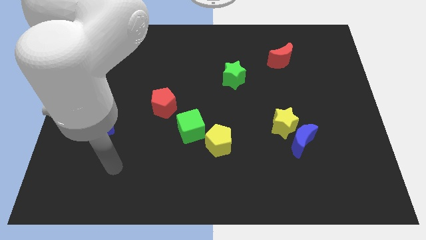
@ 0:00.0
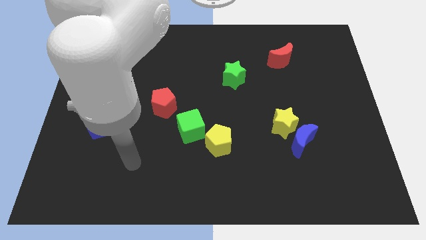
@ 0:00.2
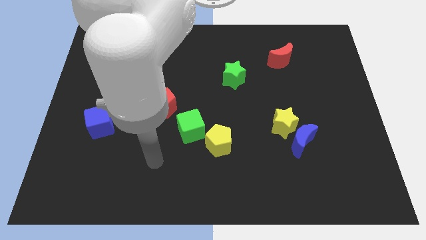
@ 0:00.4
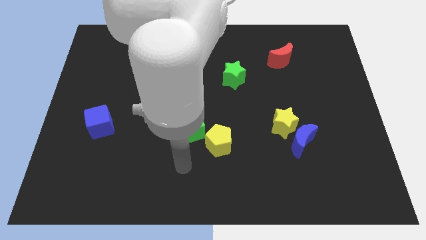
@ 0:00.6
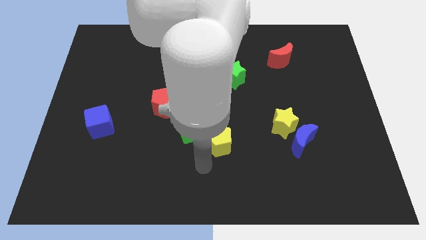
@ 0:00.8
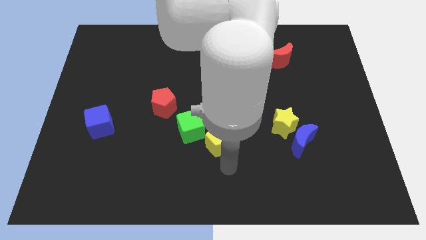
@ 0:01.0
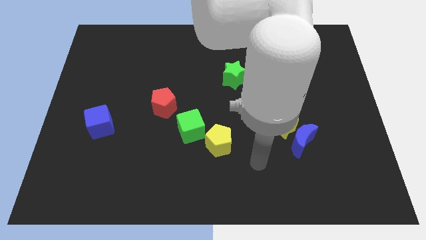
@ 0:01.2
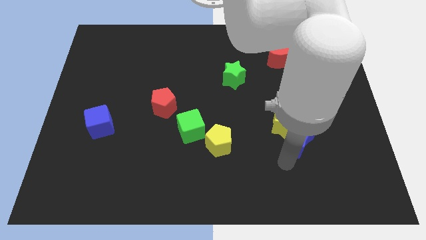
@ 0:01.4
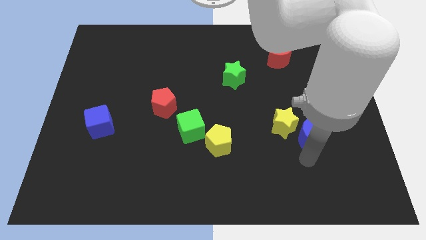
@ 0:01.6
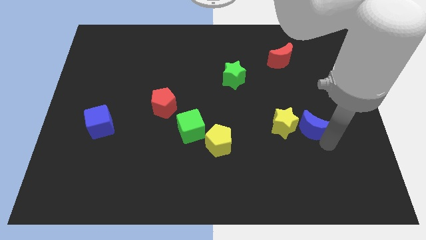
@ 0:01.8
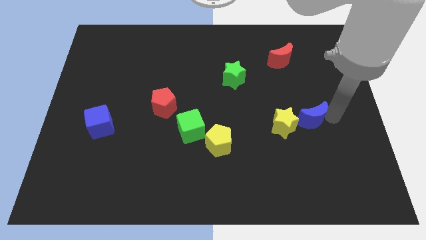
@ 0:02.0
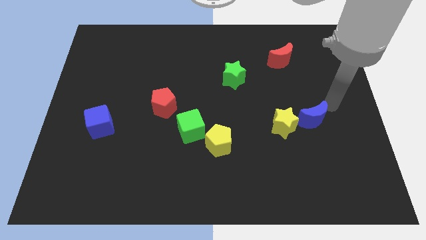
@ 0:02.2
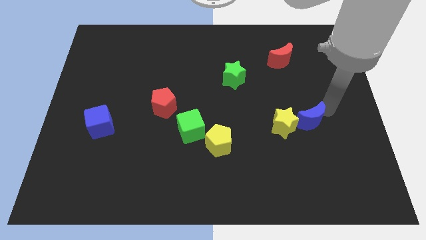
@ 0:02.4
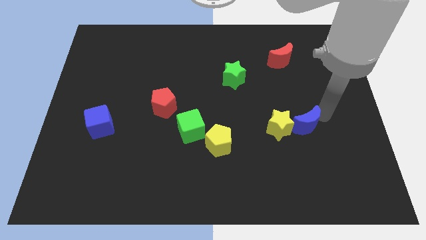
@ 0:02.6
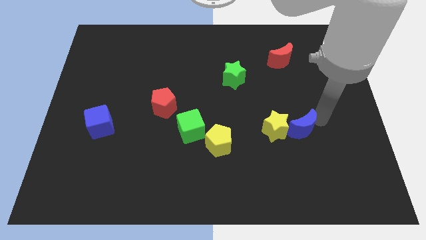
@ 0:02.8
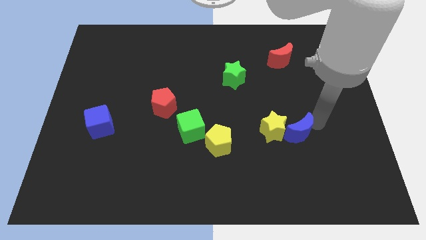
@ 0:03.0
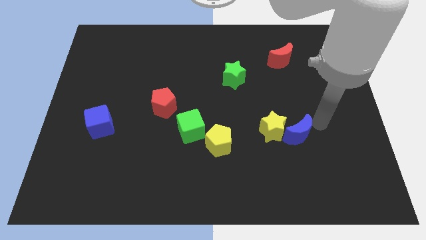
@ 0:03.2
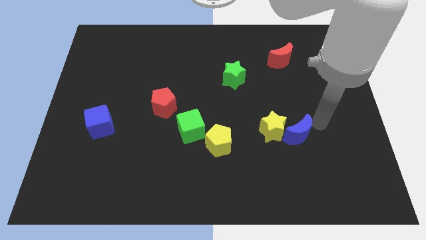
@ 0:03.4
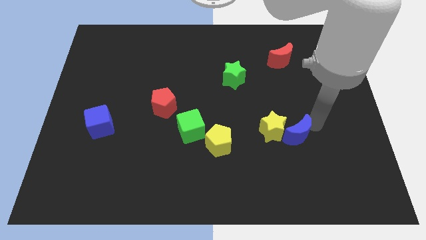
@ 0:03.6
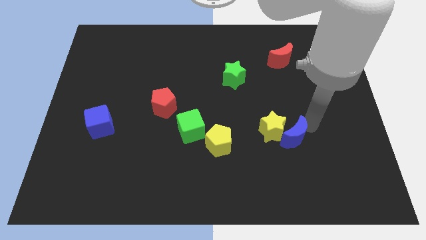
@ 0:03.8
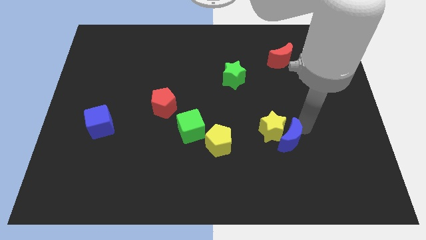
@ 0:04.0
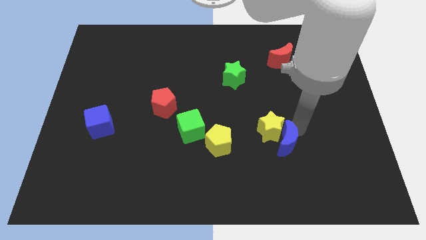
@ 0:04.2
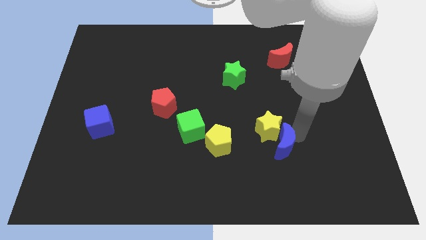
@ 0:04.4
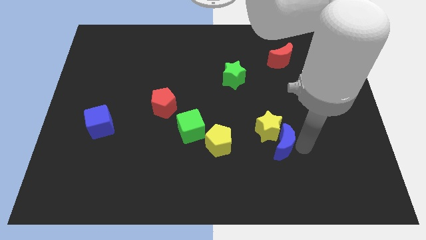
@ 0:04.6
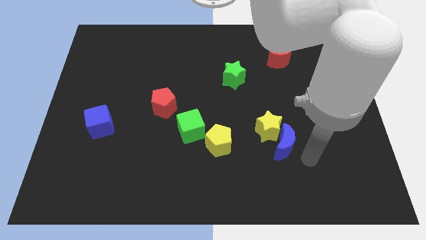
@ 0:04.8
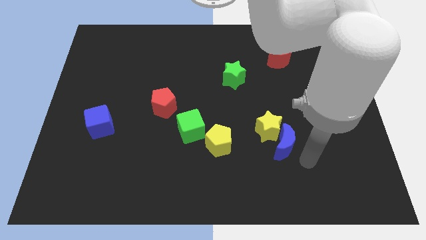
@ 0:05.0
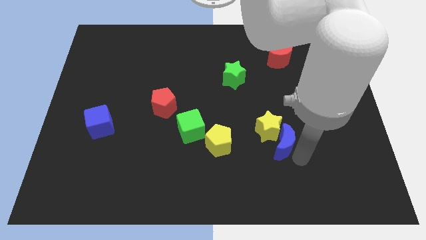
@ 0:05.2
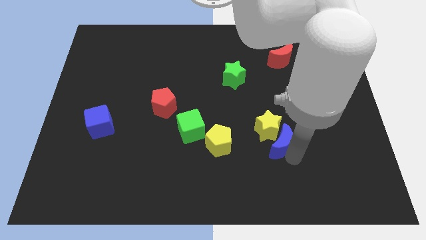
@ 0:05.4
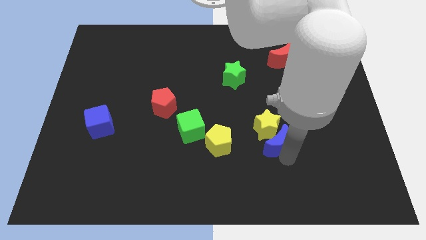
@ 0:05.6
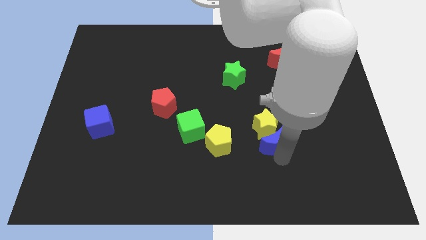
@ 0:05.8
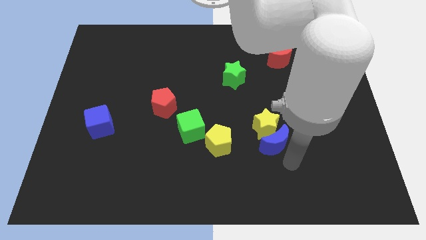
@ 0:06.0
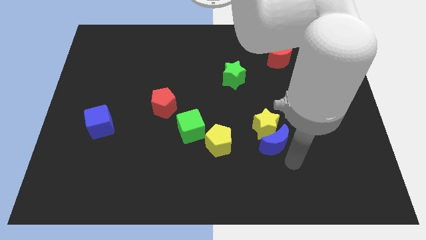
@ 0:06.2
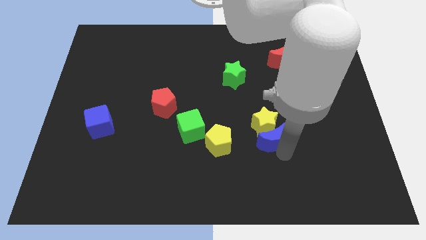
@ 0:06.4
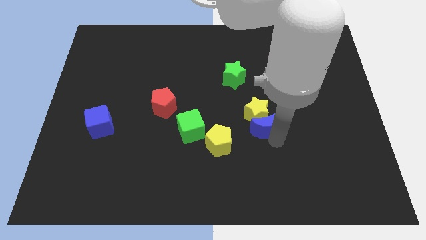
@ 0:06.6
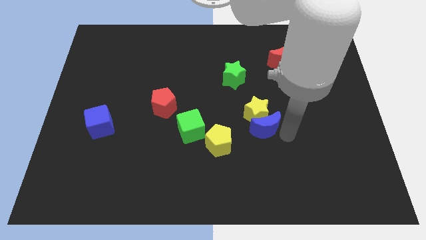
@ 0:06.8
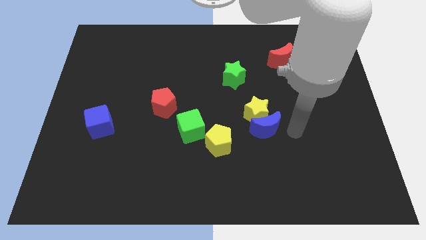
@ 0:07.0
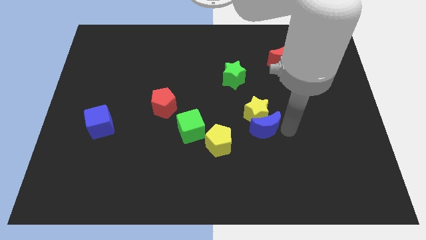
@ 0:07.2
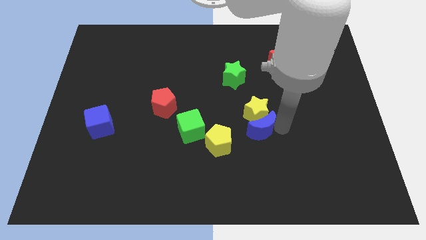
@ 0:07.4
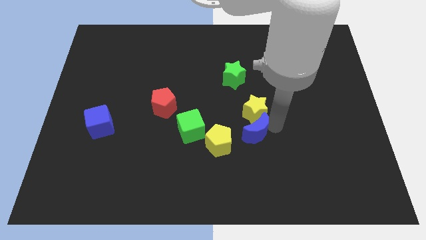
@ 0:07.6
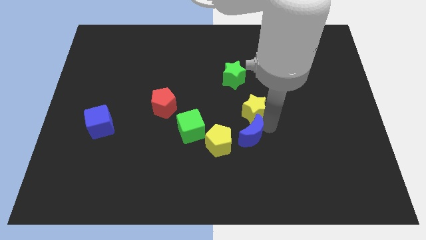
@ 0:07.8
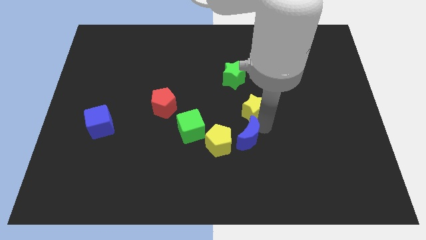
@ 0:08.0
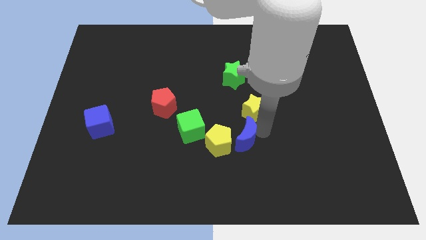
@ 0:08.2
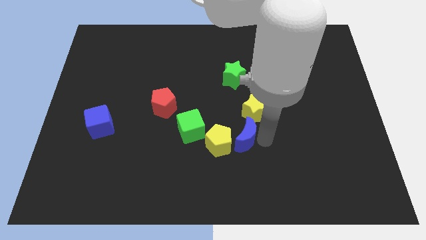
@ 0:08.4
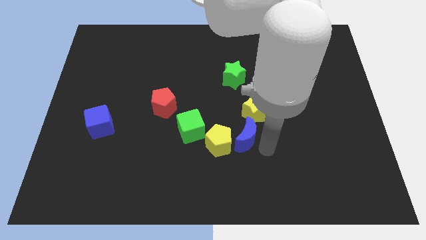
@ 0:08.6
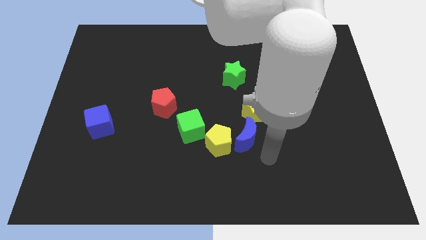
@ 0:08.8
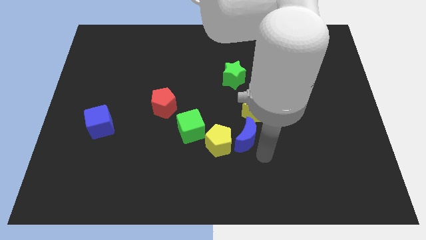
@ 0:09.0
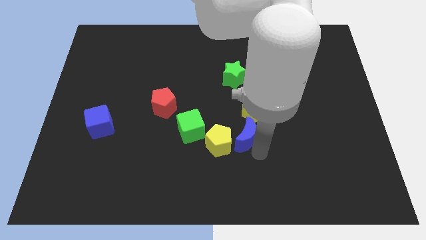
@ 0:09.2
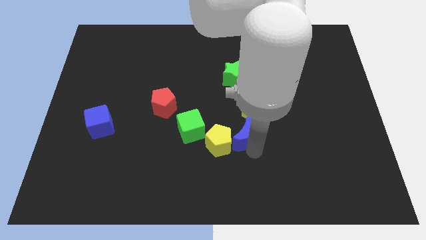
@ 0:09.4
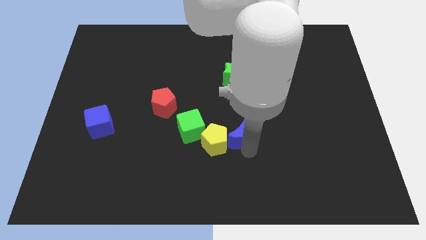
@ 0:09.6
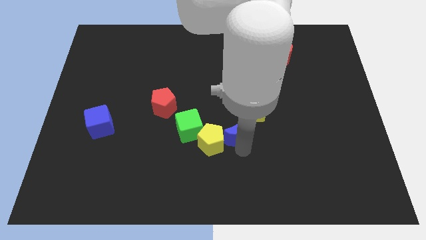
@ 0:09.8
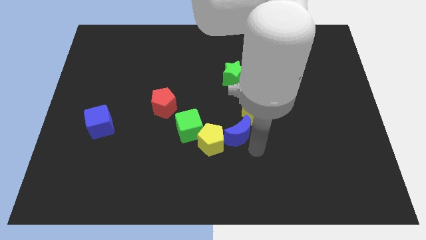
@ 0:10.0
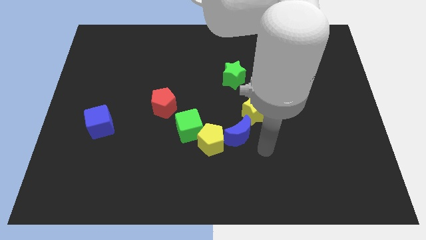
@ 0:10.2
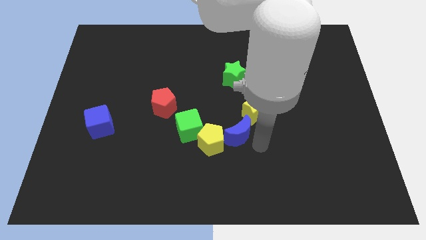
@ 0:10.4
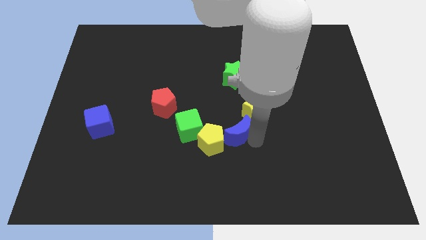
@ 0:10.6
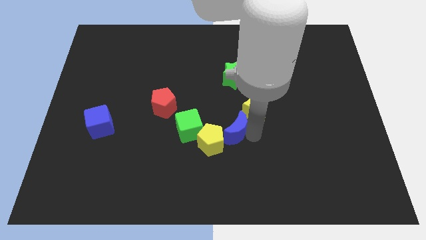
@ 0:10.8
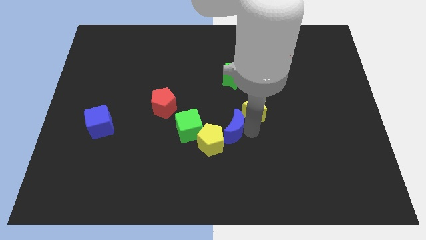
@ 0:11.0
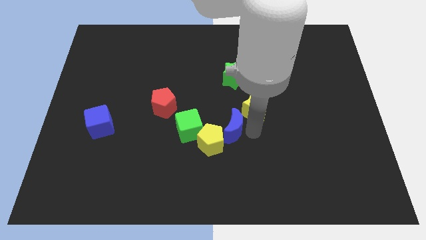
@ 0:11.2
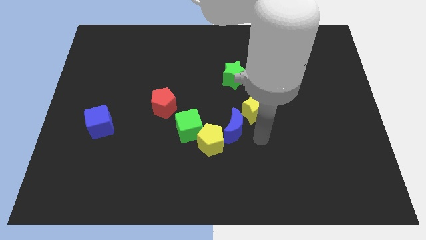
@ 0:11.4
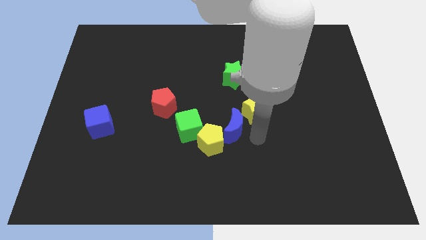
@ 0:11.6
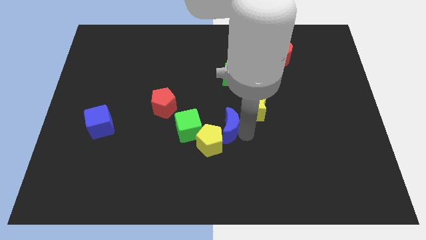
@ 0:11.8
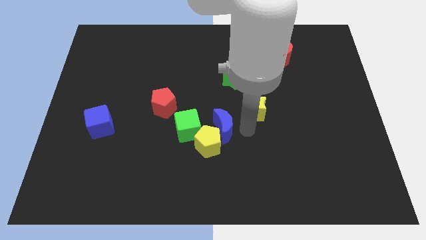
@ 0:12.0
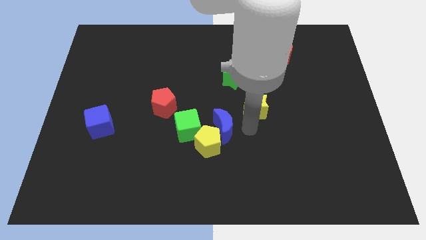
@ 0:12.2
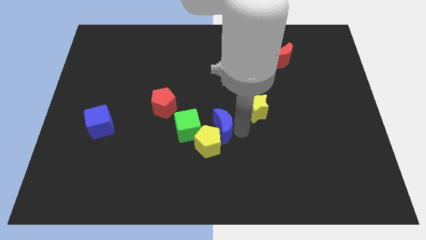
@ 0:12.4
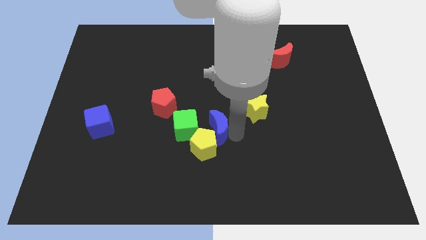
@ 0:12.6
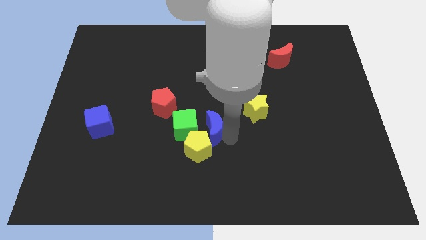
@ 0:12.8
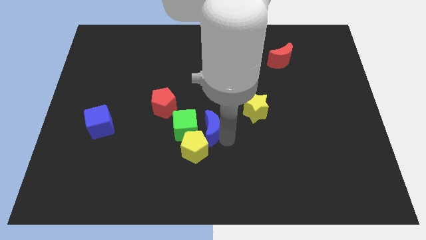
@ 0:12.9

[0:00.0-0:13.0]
slide the blue moon to the green cube
